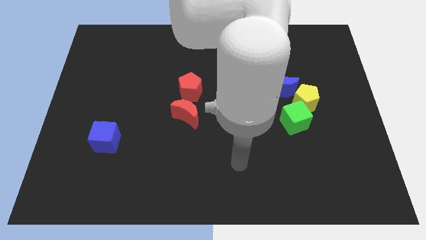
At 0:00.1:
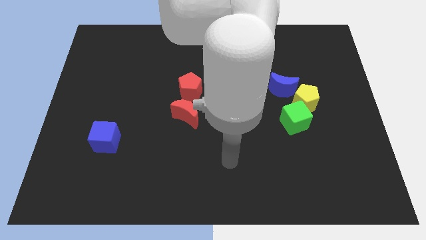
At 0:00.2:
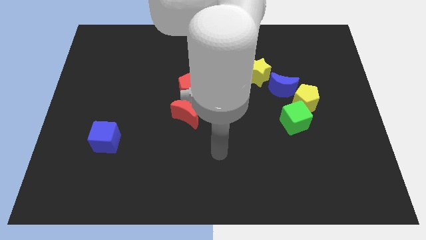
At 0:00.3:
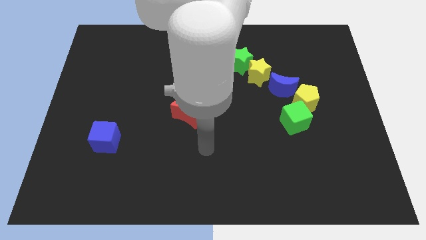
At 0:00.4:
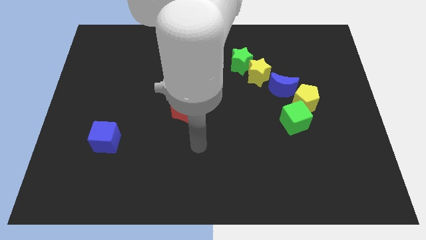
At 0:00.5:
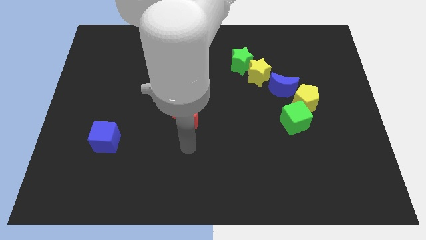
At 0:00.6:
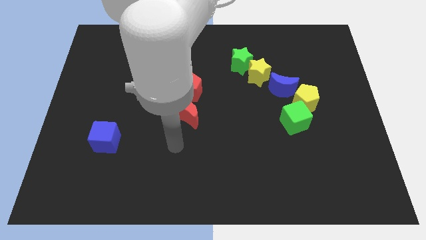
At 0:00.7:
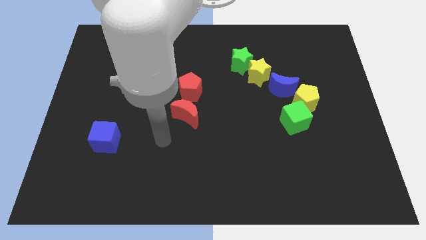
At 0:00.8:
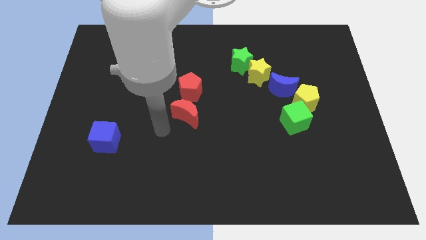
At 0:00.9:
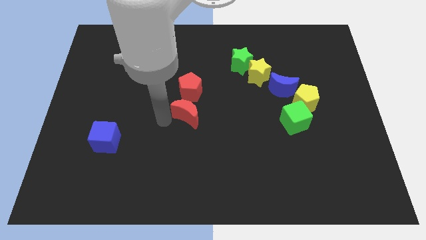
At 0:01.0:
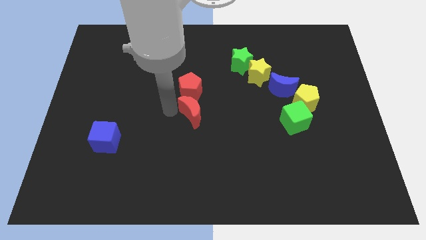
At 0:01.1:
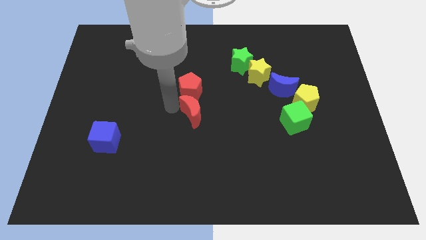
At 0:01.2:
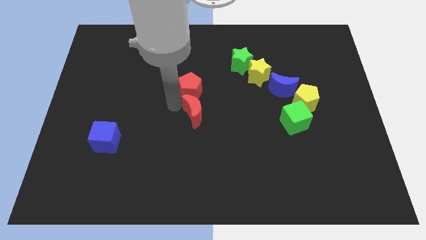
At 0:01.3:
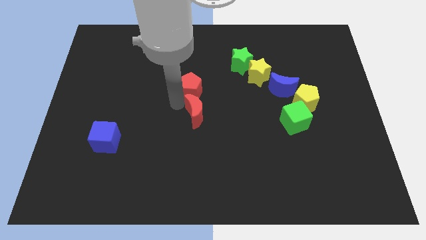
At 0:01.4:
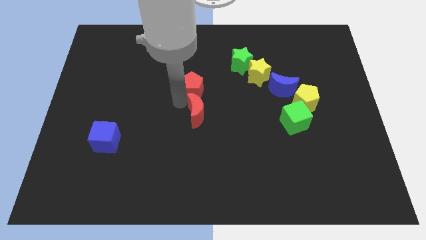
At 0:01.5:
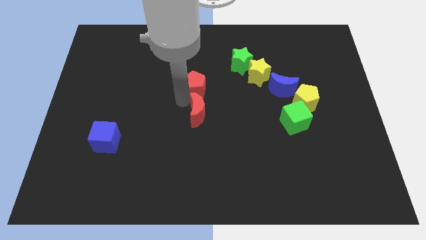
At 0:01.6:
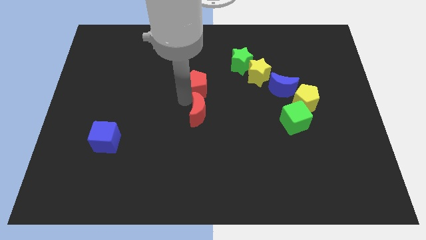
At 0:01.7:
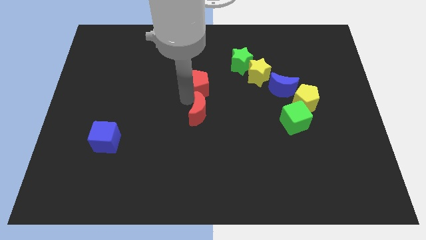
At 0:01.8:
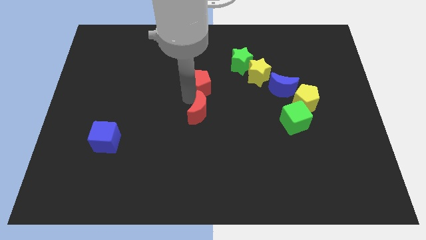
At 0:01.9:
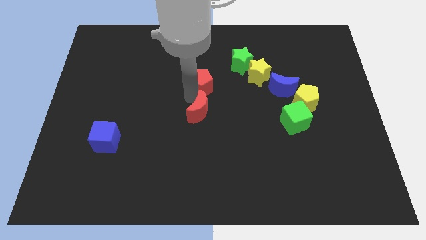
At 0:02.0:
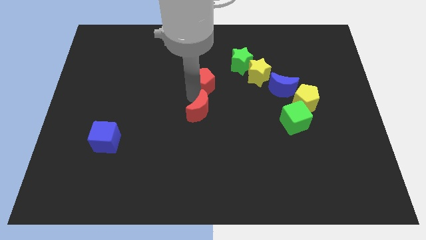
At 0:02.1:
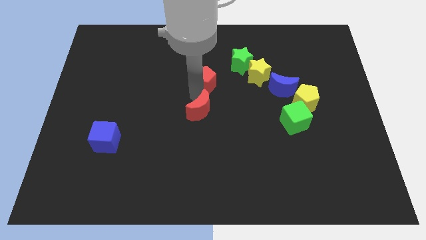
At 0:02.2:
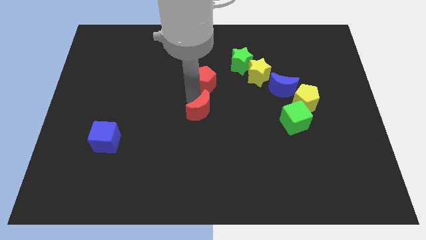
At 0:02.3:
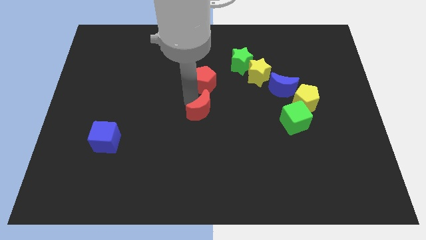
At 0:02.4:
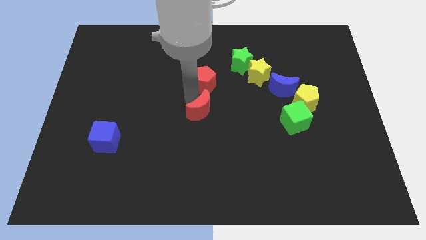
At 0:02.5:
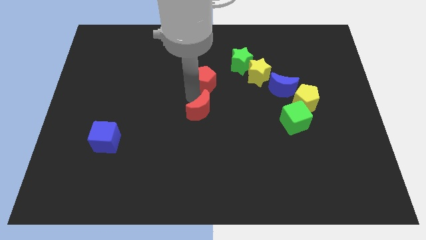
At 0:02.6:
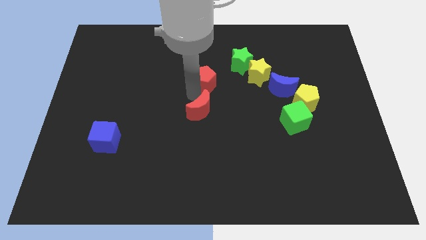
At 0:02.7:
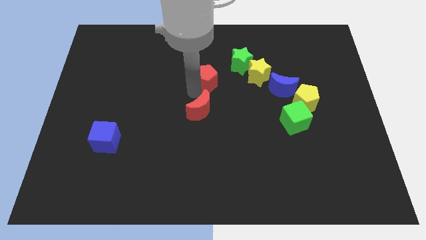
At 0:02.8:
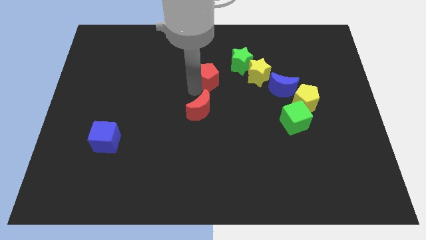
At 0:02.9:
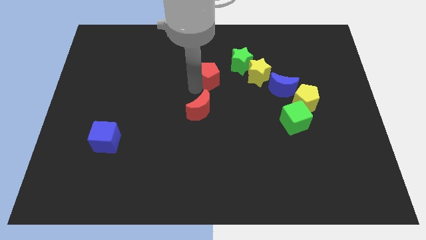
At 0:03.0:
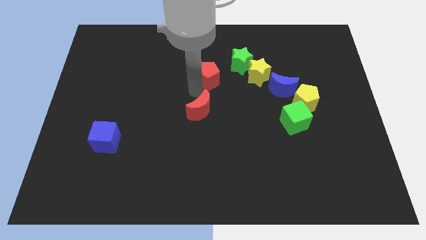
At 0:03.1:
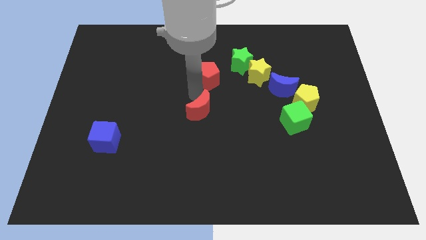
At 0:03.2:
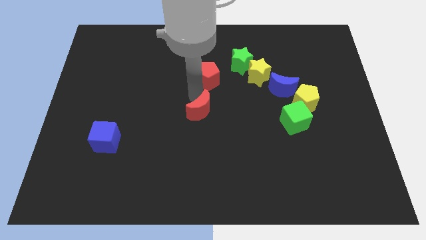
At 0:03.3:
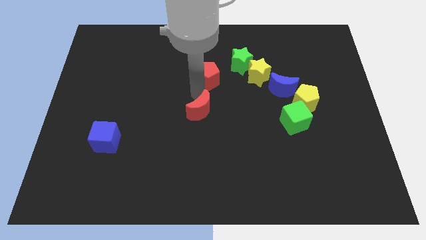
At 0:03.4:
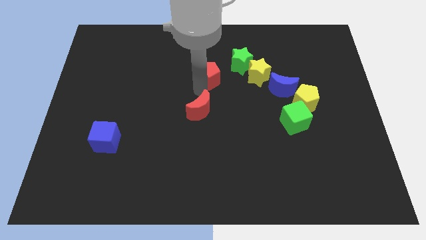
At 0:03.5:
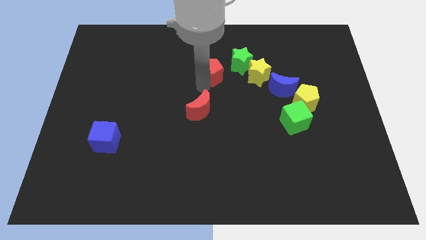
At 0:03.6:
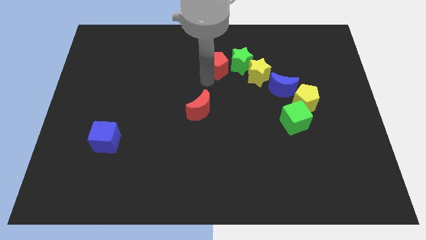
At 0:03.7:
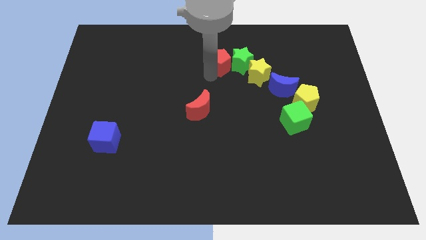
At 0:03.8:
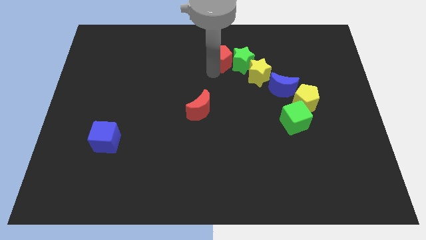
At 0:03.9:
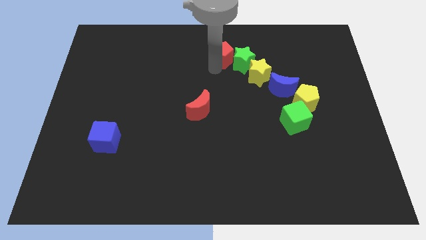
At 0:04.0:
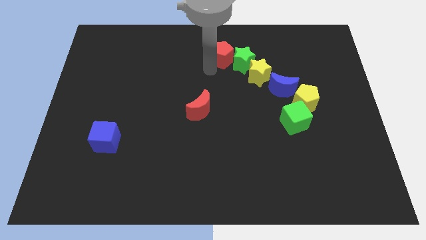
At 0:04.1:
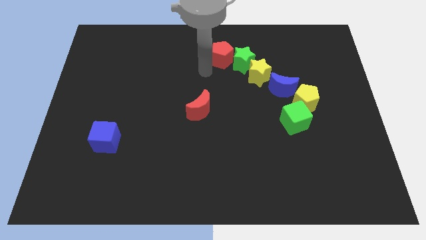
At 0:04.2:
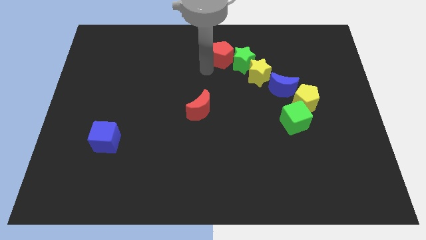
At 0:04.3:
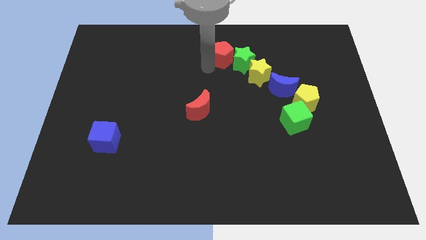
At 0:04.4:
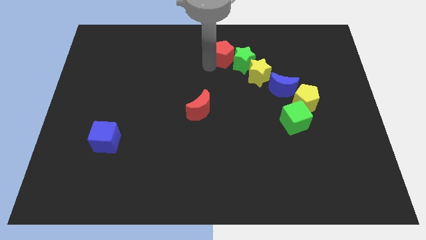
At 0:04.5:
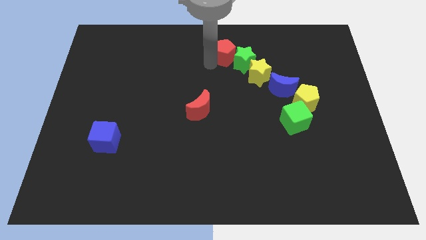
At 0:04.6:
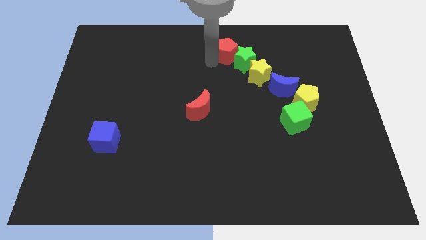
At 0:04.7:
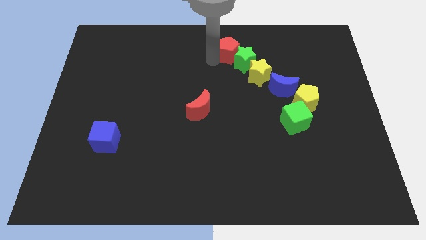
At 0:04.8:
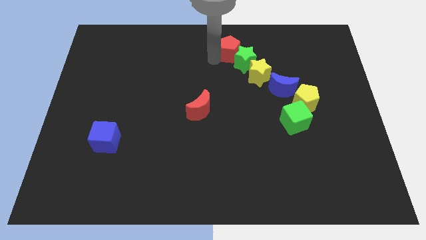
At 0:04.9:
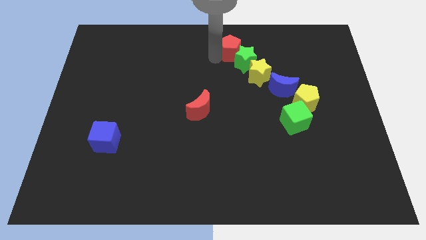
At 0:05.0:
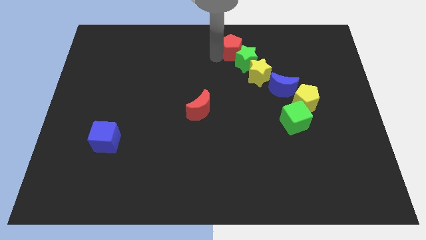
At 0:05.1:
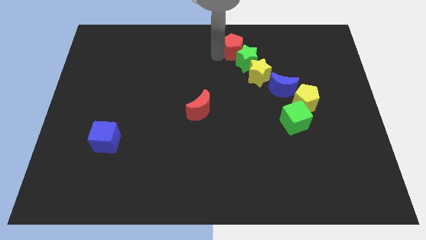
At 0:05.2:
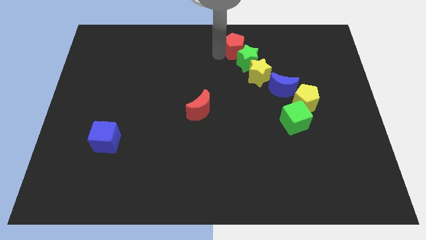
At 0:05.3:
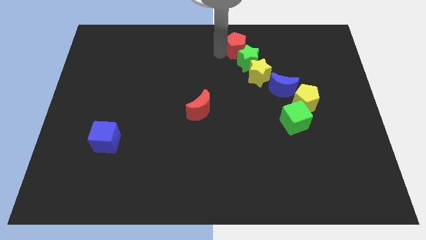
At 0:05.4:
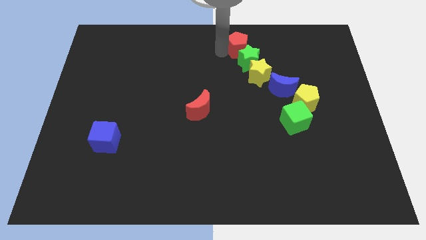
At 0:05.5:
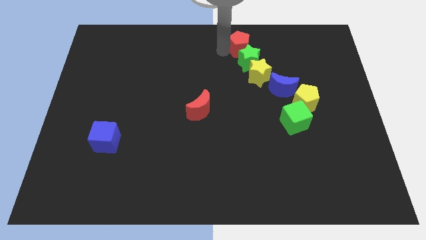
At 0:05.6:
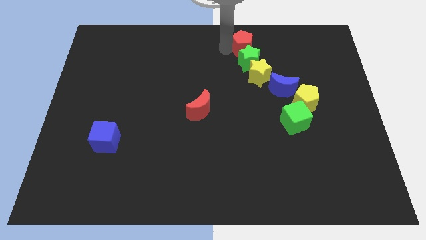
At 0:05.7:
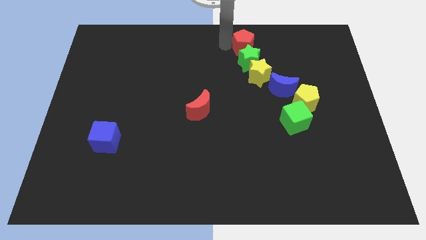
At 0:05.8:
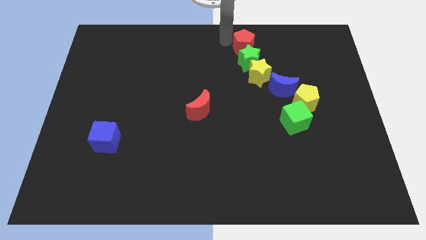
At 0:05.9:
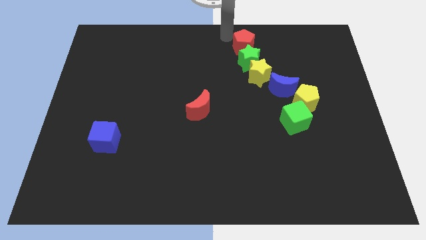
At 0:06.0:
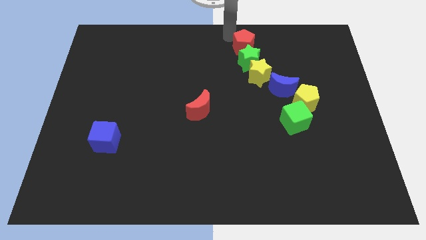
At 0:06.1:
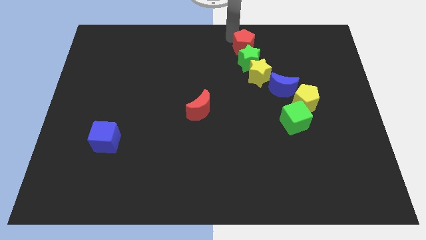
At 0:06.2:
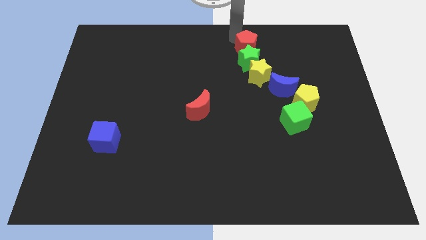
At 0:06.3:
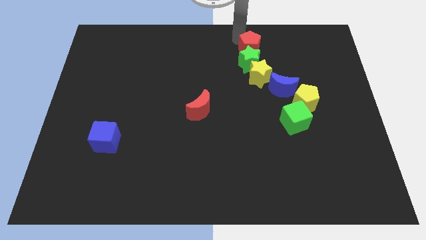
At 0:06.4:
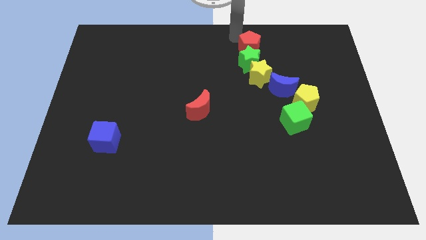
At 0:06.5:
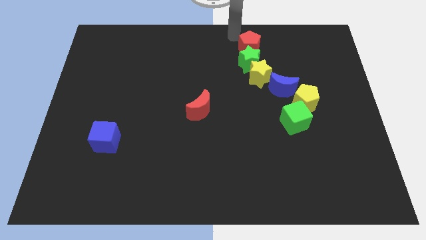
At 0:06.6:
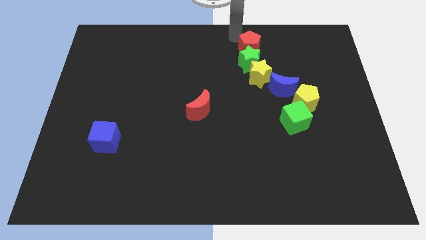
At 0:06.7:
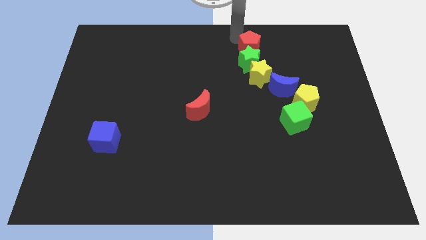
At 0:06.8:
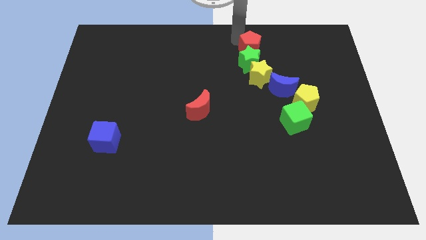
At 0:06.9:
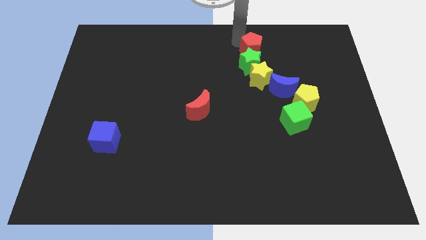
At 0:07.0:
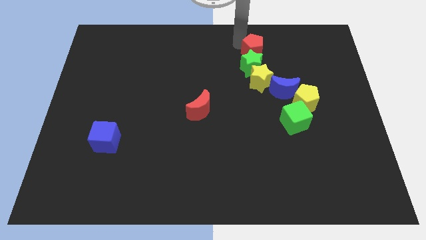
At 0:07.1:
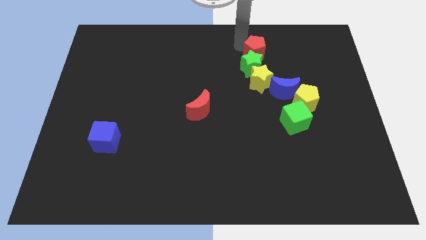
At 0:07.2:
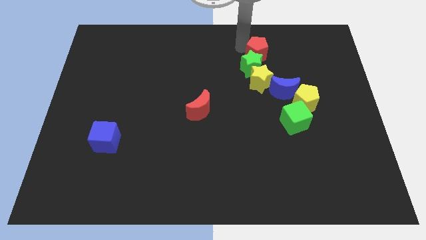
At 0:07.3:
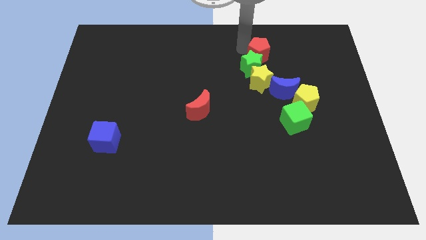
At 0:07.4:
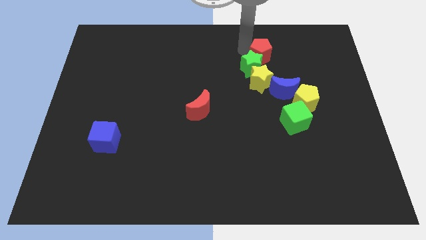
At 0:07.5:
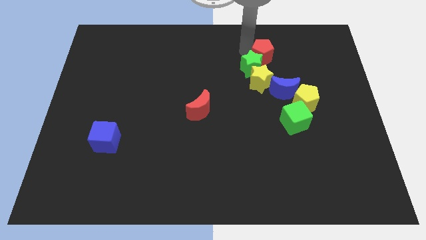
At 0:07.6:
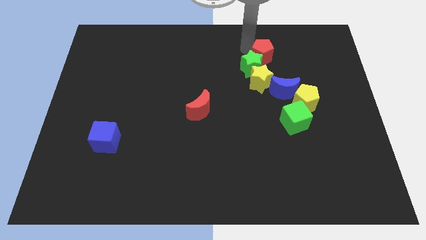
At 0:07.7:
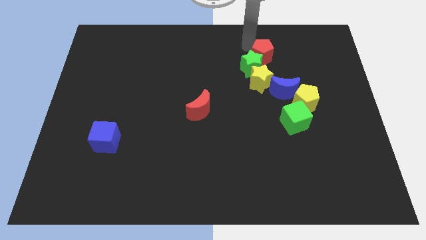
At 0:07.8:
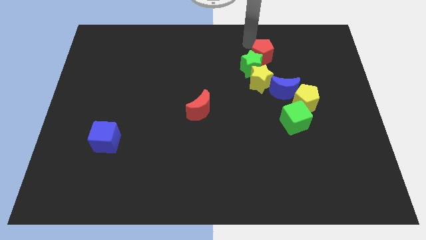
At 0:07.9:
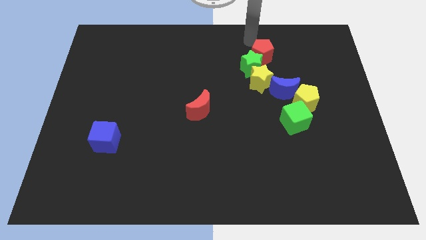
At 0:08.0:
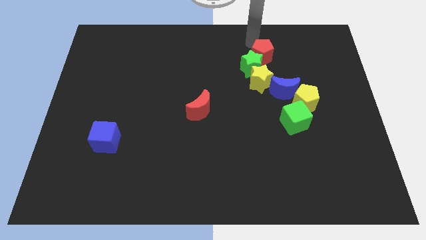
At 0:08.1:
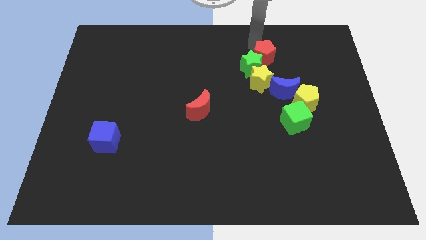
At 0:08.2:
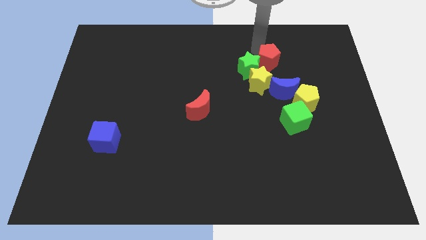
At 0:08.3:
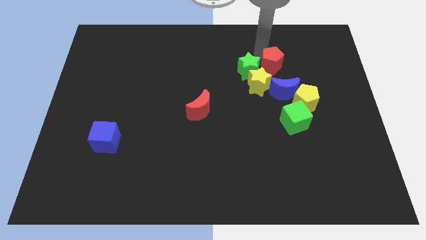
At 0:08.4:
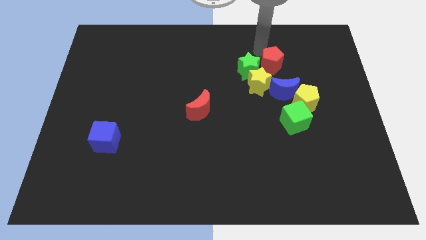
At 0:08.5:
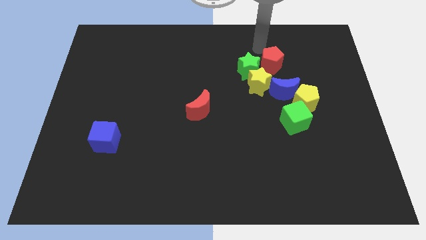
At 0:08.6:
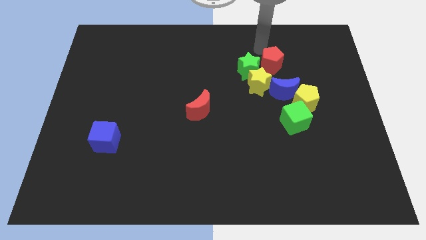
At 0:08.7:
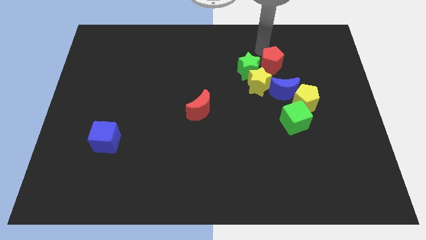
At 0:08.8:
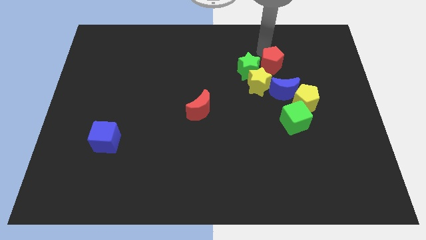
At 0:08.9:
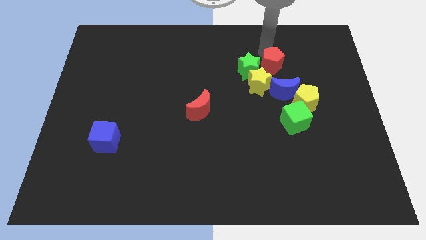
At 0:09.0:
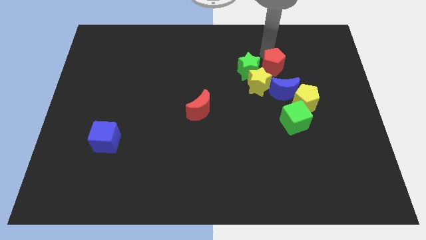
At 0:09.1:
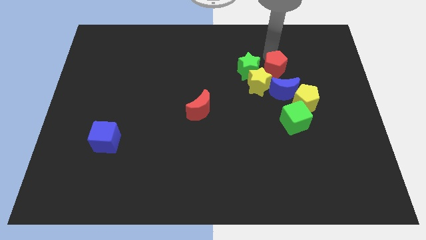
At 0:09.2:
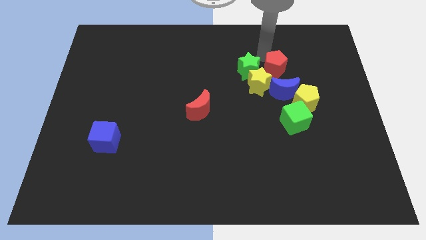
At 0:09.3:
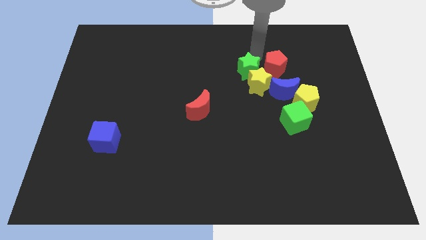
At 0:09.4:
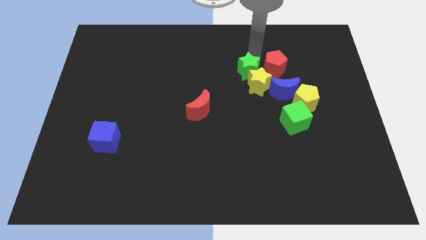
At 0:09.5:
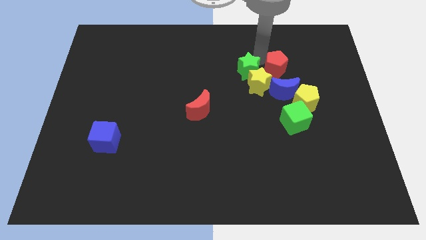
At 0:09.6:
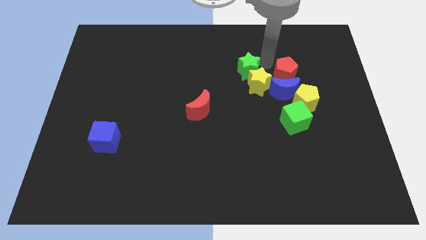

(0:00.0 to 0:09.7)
push the red pentagon to the right
